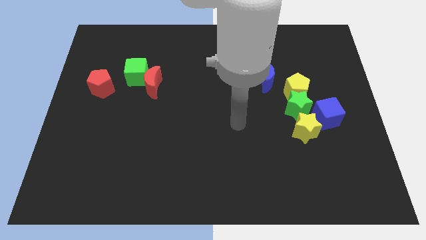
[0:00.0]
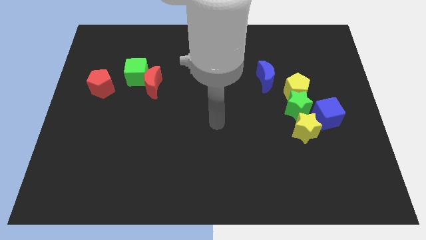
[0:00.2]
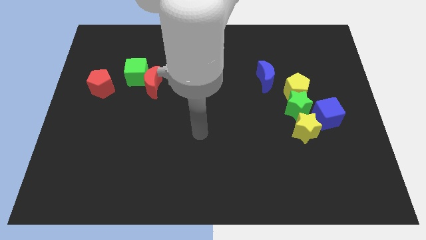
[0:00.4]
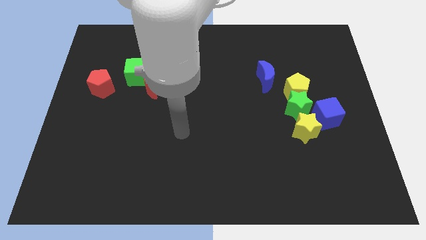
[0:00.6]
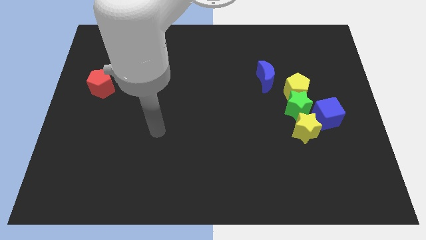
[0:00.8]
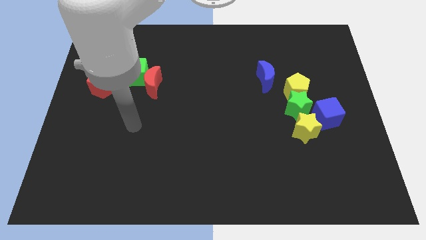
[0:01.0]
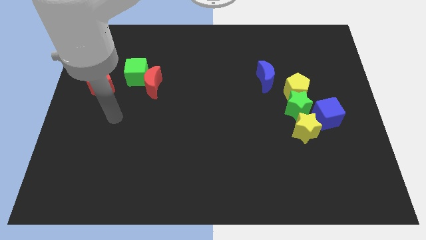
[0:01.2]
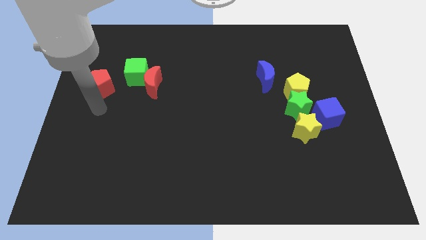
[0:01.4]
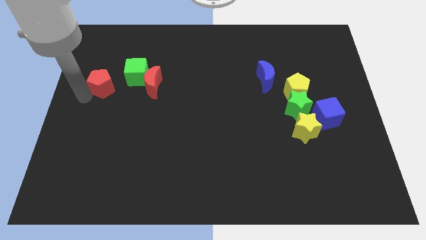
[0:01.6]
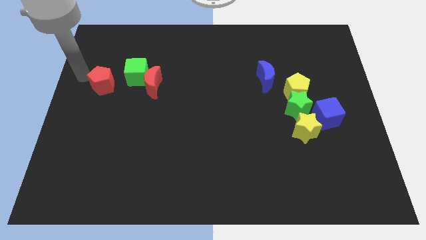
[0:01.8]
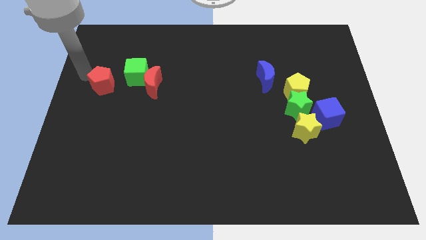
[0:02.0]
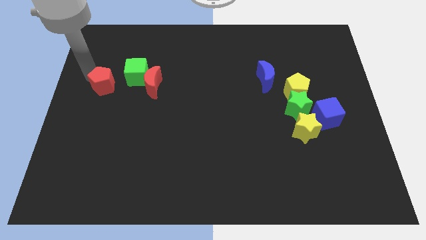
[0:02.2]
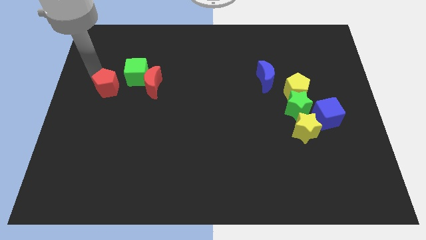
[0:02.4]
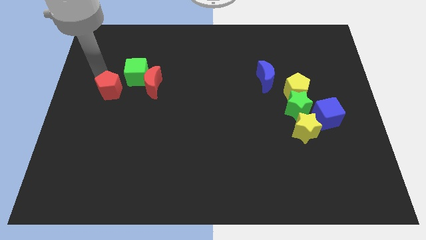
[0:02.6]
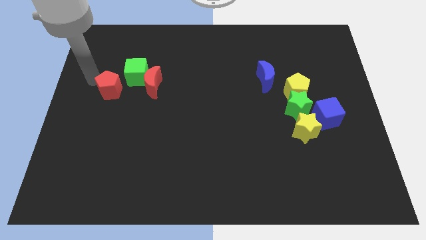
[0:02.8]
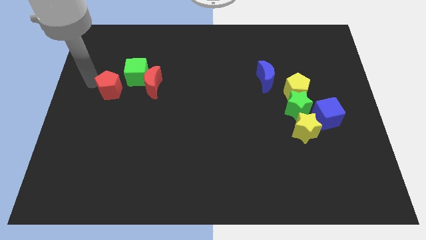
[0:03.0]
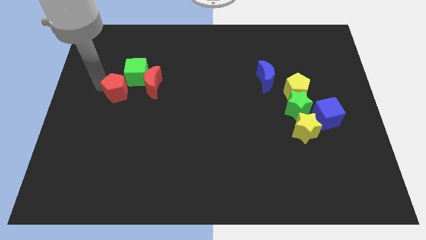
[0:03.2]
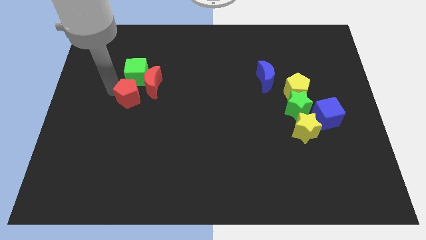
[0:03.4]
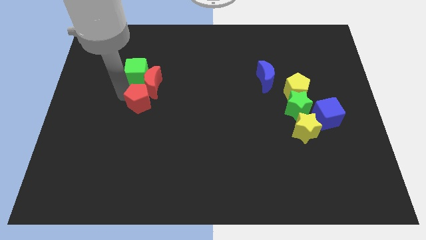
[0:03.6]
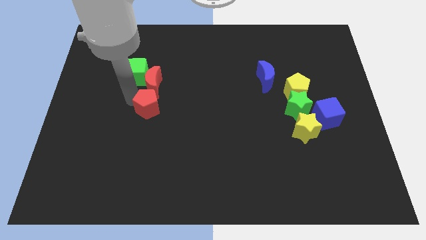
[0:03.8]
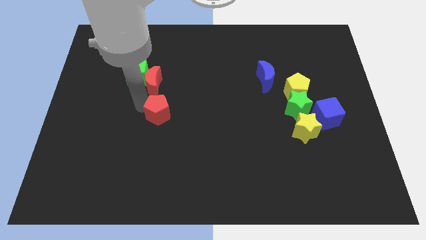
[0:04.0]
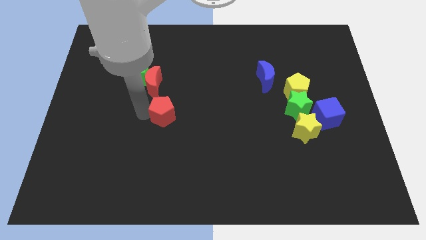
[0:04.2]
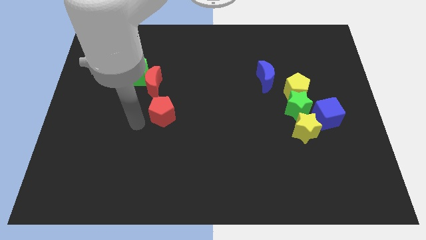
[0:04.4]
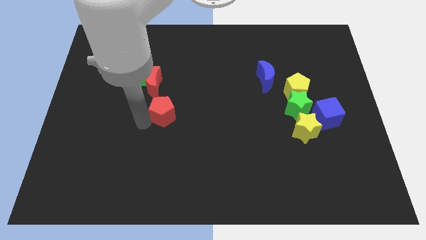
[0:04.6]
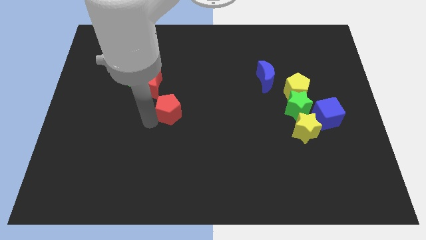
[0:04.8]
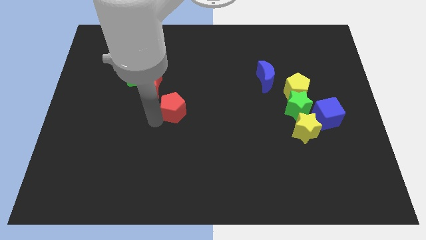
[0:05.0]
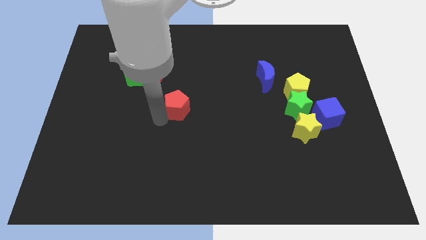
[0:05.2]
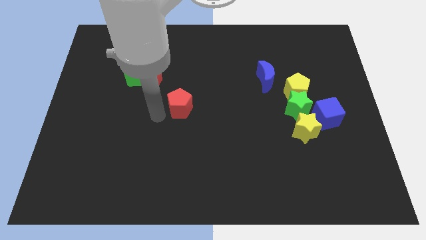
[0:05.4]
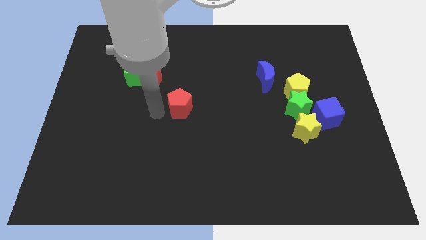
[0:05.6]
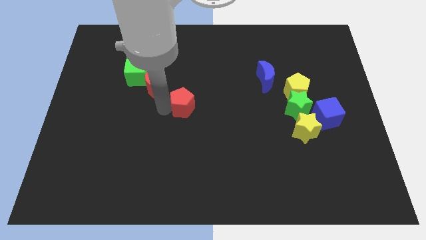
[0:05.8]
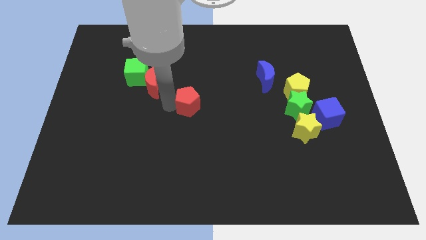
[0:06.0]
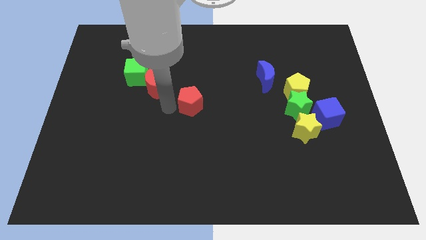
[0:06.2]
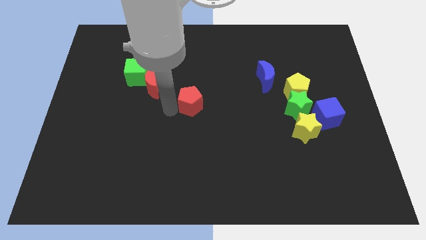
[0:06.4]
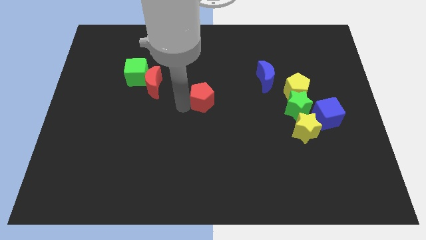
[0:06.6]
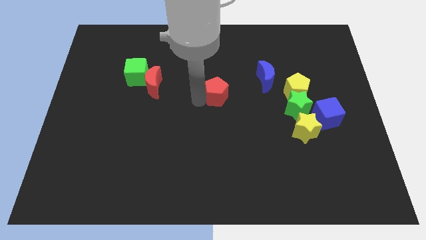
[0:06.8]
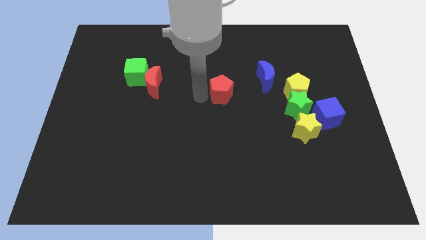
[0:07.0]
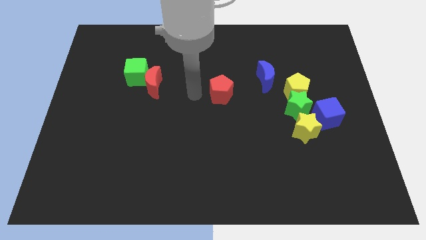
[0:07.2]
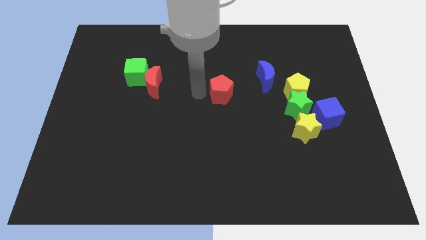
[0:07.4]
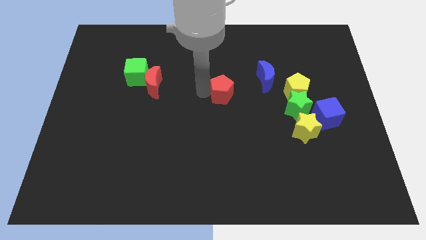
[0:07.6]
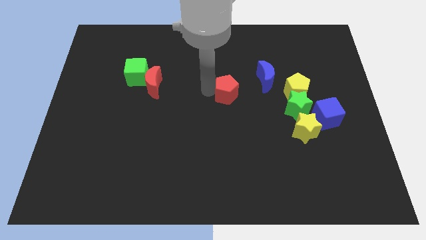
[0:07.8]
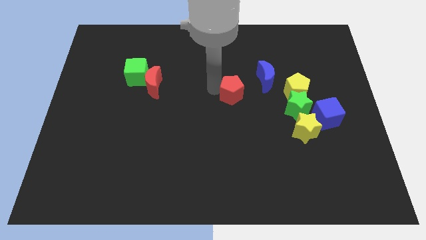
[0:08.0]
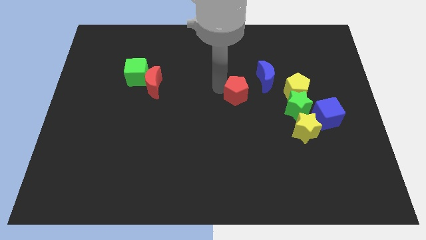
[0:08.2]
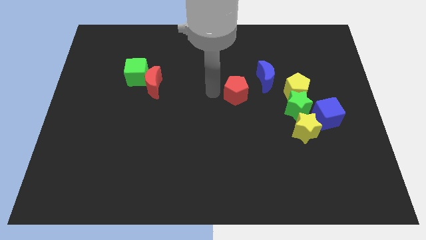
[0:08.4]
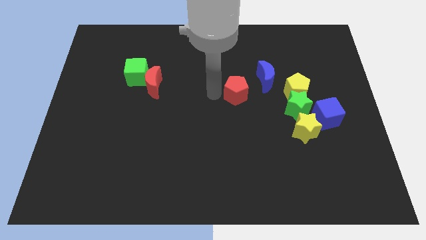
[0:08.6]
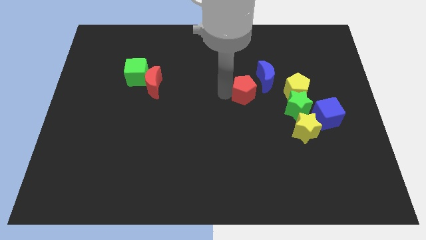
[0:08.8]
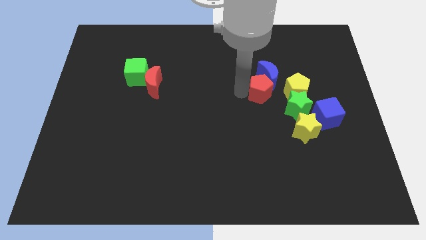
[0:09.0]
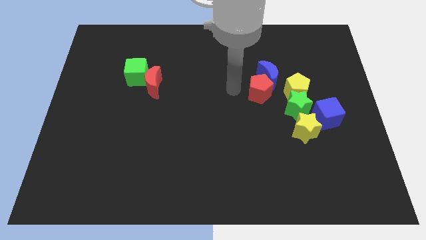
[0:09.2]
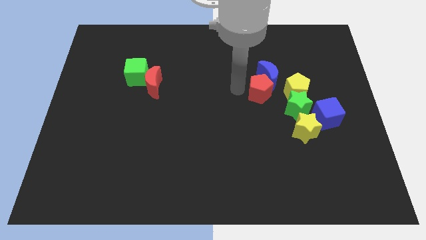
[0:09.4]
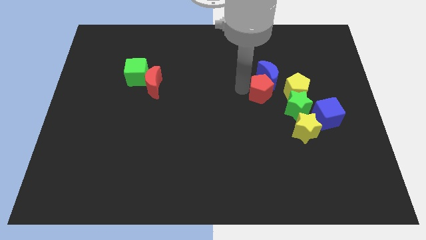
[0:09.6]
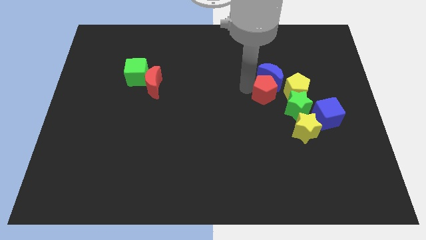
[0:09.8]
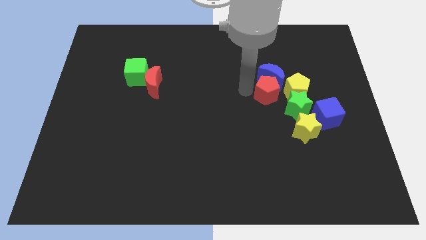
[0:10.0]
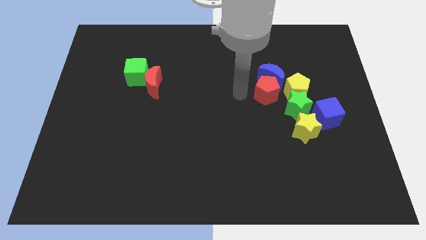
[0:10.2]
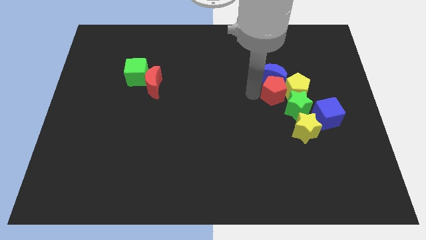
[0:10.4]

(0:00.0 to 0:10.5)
slide the red pentagon close to the yellow pentagon

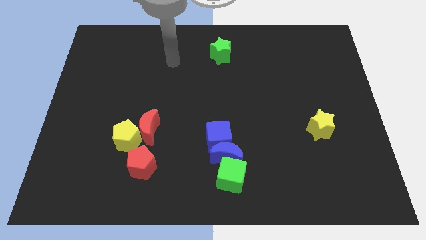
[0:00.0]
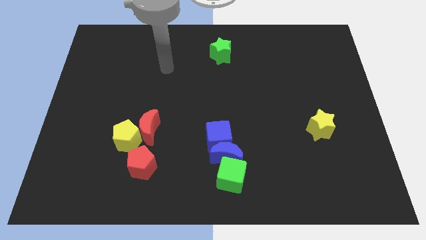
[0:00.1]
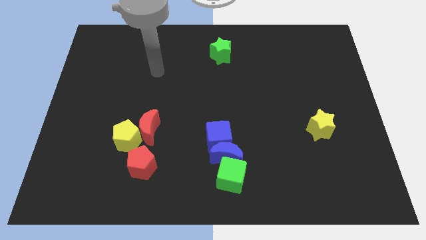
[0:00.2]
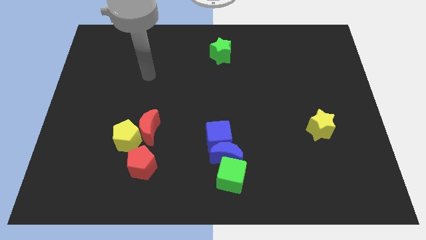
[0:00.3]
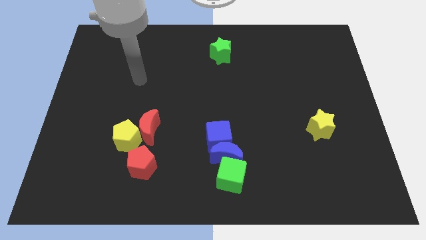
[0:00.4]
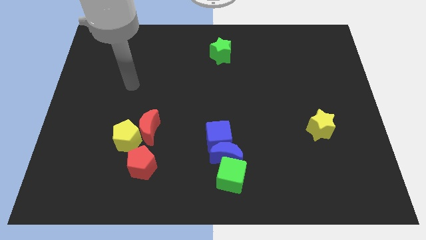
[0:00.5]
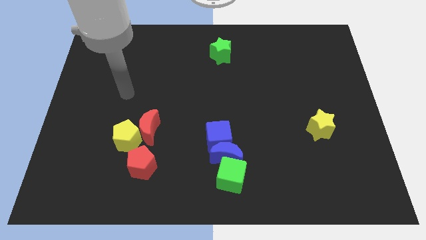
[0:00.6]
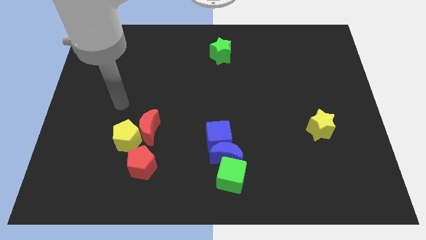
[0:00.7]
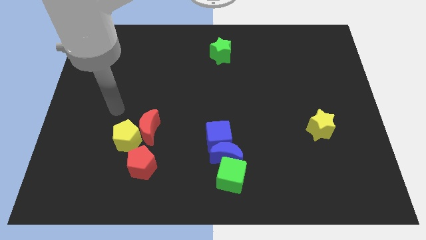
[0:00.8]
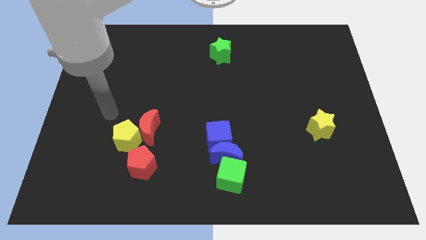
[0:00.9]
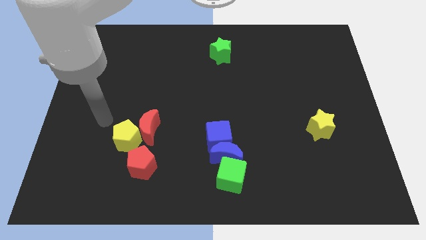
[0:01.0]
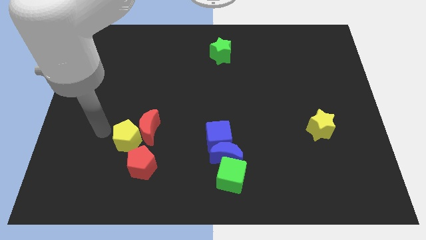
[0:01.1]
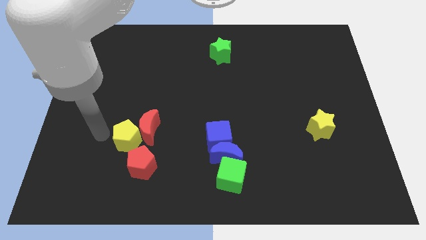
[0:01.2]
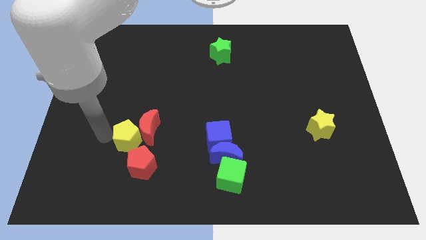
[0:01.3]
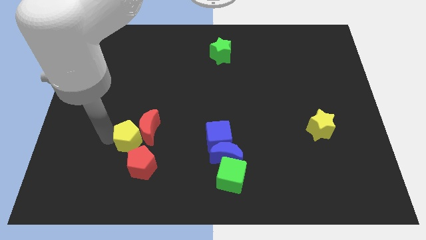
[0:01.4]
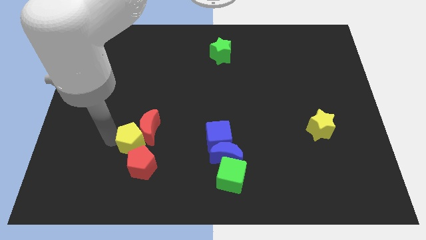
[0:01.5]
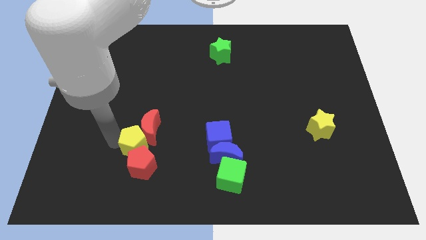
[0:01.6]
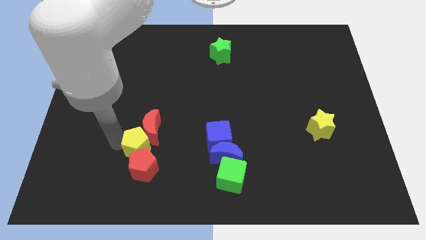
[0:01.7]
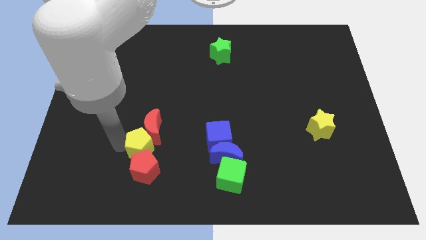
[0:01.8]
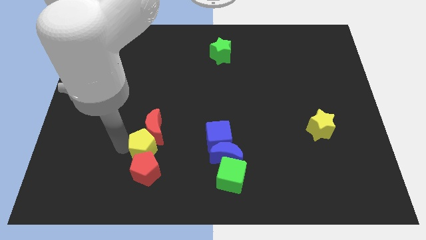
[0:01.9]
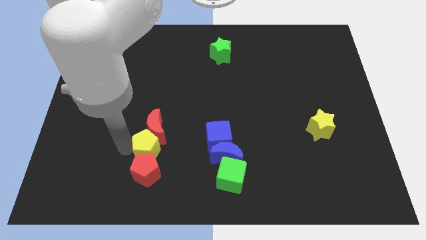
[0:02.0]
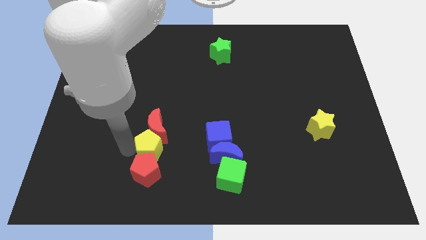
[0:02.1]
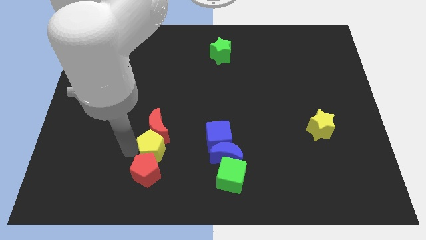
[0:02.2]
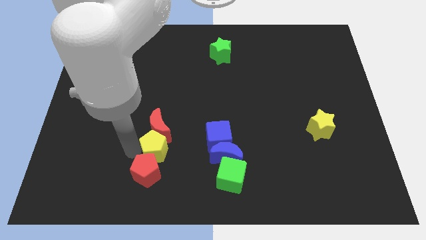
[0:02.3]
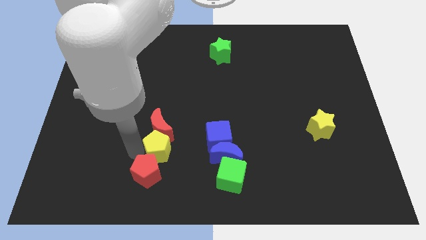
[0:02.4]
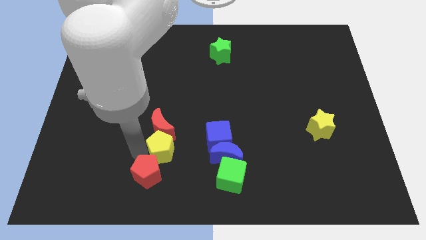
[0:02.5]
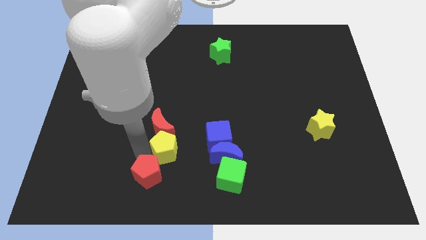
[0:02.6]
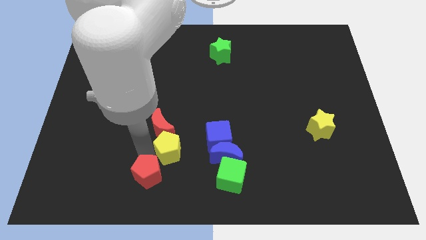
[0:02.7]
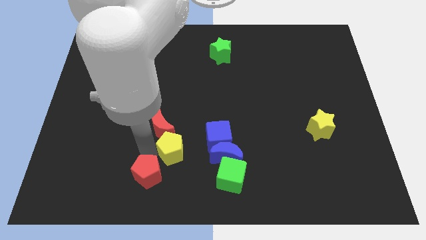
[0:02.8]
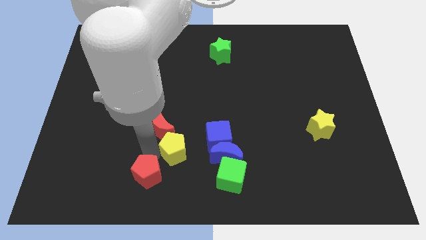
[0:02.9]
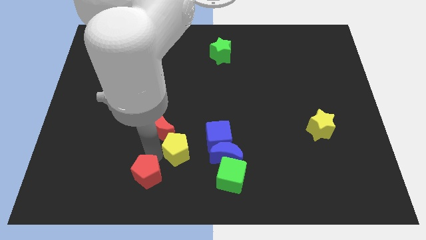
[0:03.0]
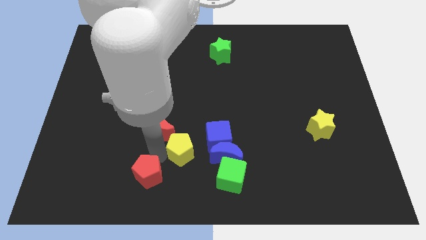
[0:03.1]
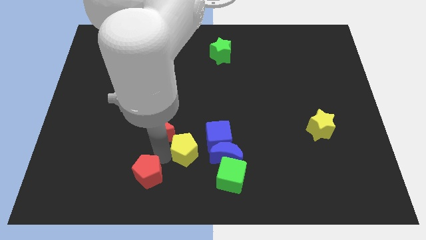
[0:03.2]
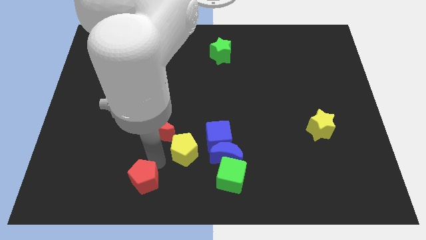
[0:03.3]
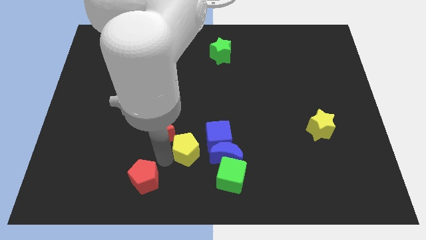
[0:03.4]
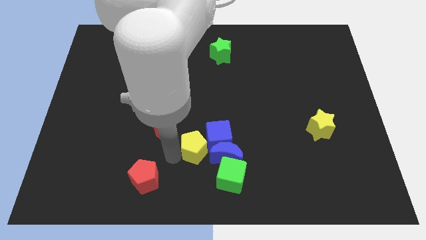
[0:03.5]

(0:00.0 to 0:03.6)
put the yellow pentagon to the blue cube
